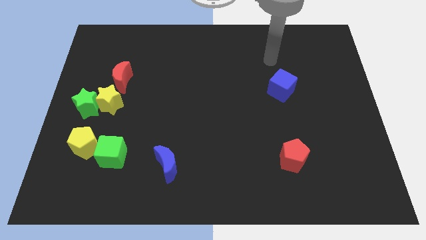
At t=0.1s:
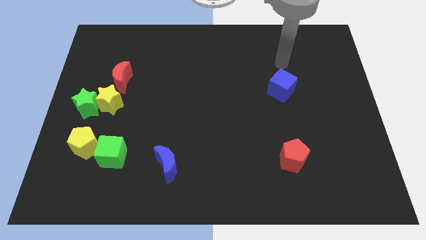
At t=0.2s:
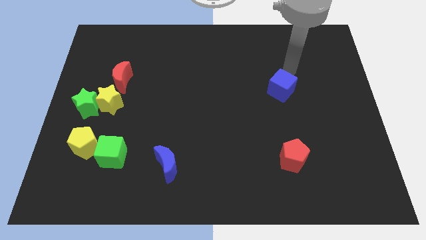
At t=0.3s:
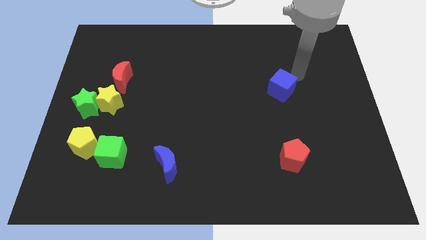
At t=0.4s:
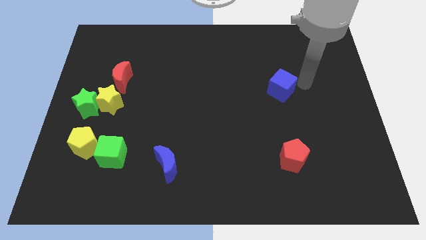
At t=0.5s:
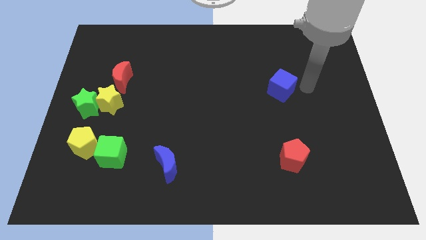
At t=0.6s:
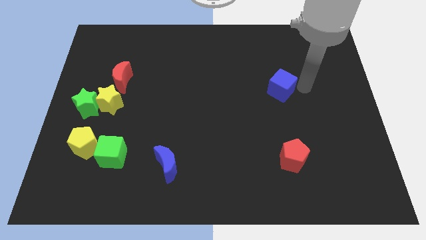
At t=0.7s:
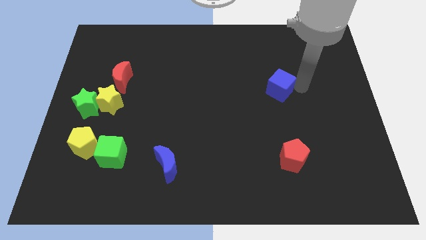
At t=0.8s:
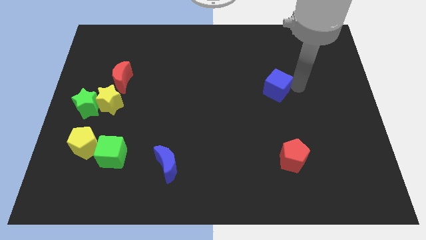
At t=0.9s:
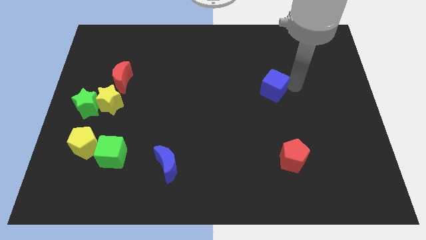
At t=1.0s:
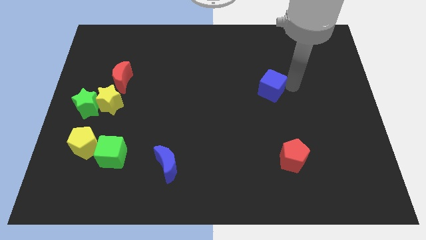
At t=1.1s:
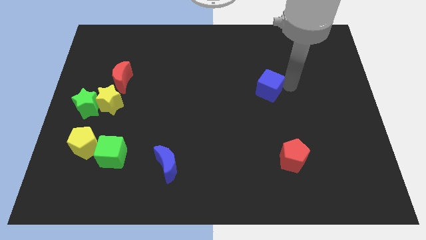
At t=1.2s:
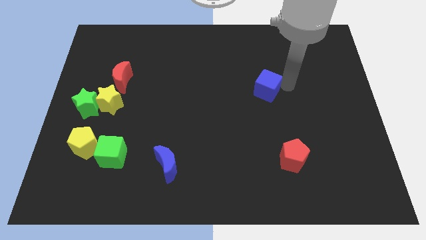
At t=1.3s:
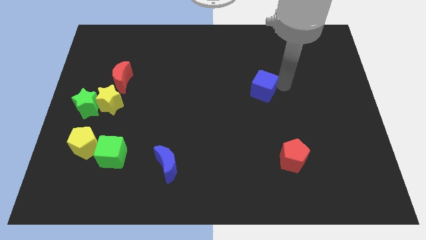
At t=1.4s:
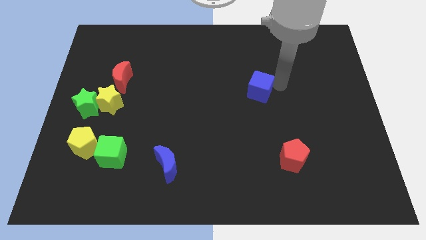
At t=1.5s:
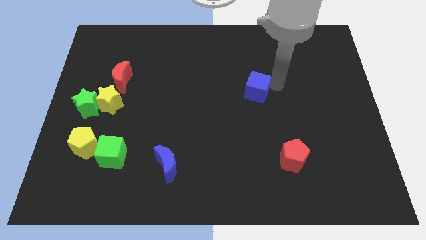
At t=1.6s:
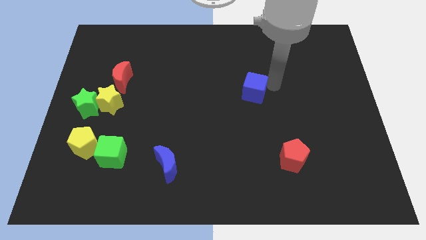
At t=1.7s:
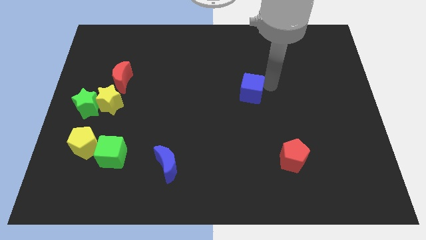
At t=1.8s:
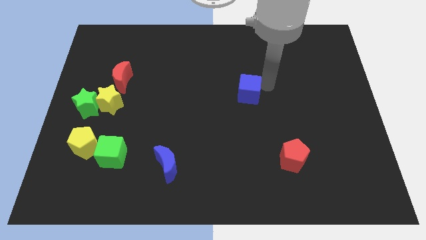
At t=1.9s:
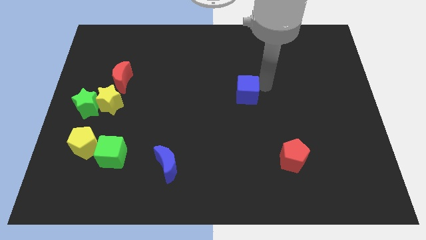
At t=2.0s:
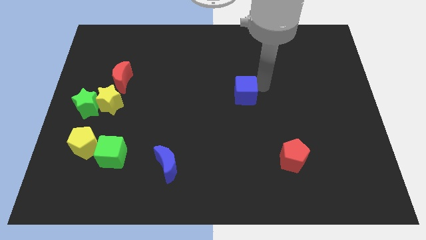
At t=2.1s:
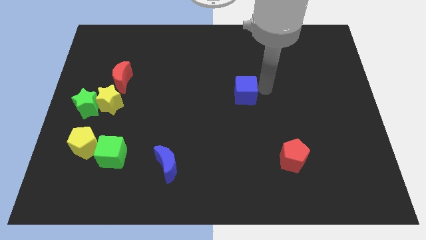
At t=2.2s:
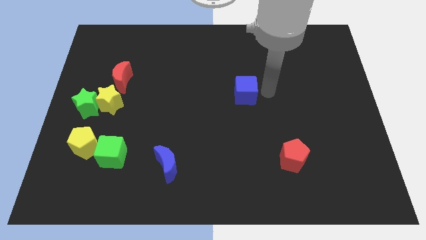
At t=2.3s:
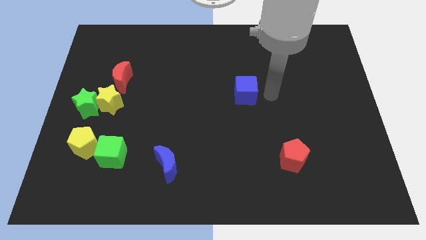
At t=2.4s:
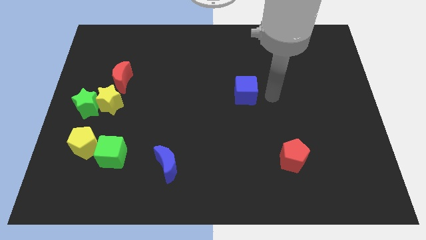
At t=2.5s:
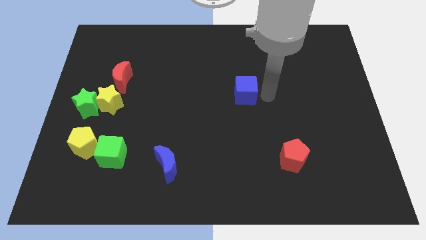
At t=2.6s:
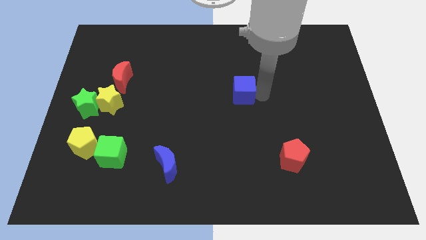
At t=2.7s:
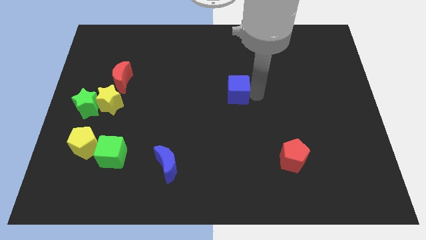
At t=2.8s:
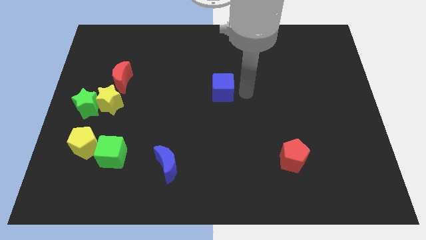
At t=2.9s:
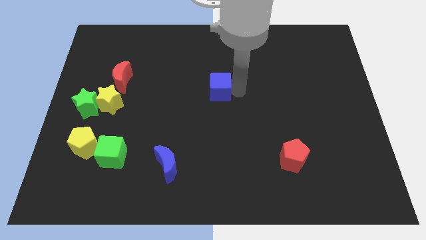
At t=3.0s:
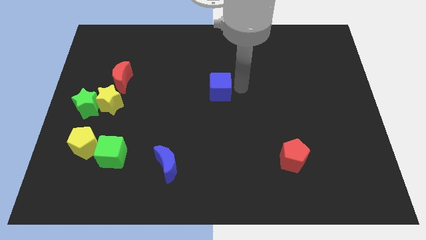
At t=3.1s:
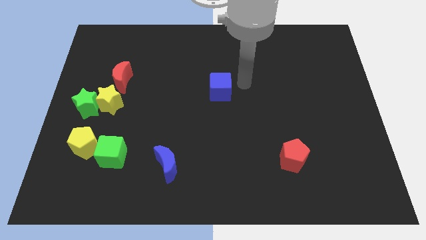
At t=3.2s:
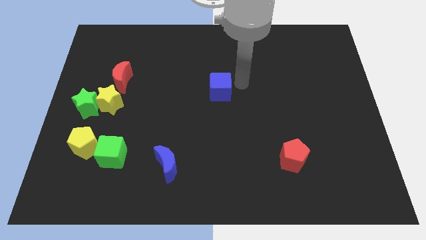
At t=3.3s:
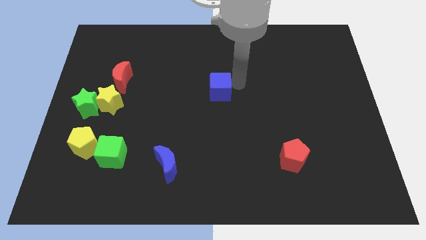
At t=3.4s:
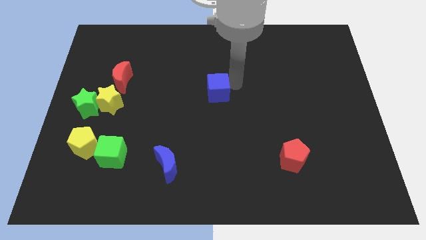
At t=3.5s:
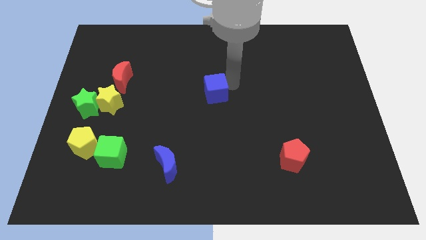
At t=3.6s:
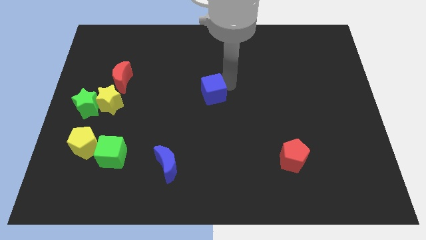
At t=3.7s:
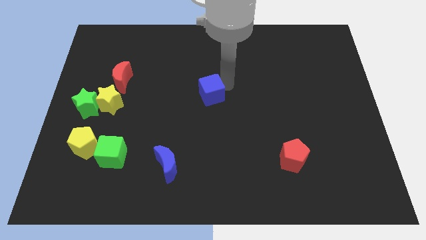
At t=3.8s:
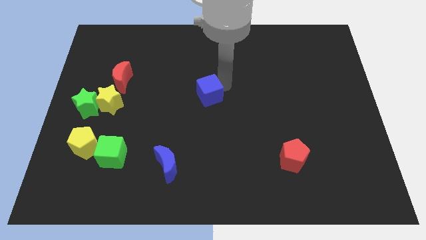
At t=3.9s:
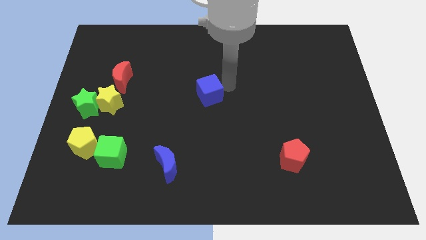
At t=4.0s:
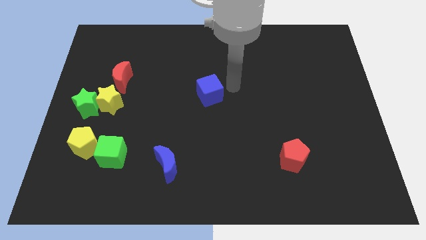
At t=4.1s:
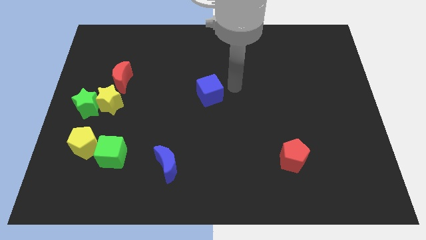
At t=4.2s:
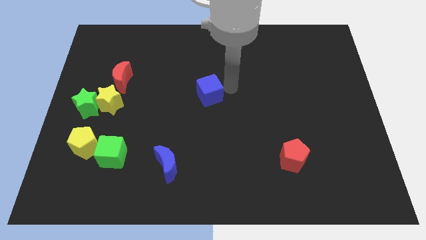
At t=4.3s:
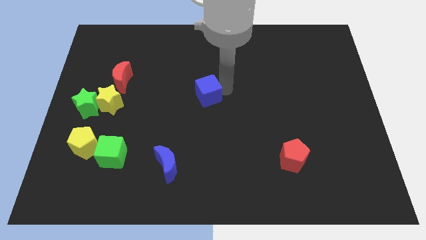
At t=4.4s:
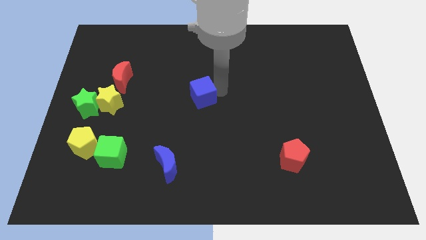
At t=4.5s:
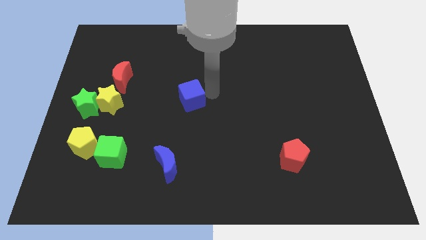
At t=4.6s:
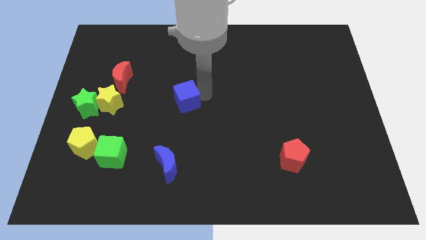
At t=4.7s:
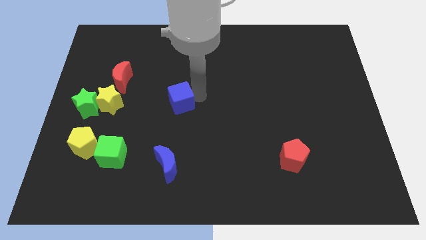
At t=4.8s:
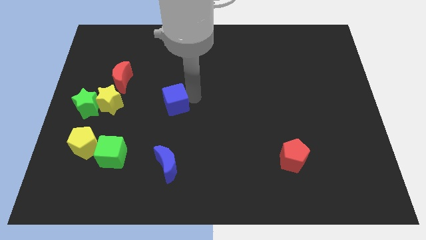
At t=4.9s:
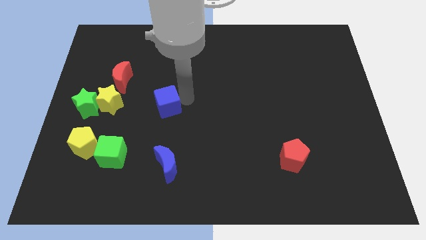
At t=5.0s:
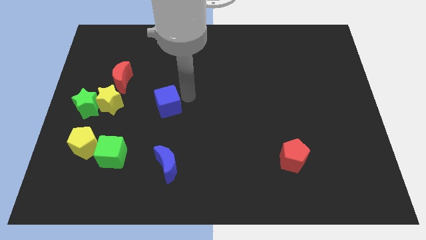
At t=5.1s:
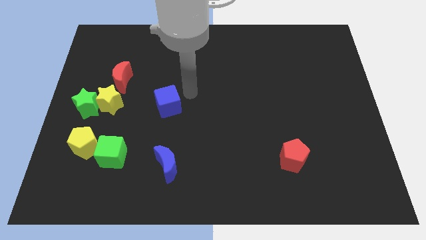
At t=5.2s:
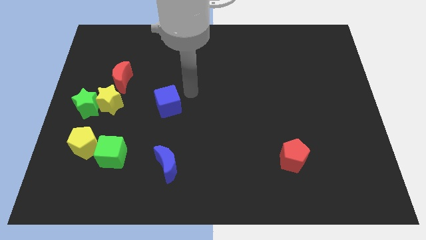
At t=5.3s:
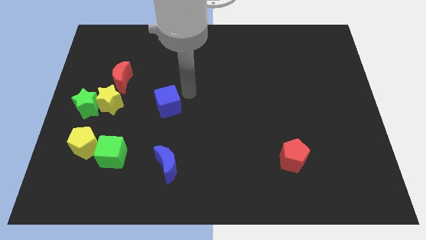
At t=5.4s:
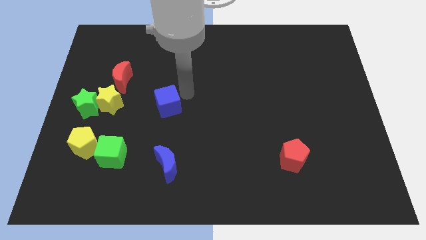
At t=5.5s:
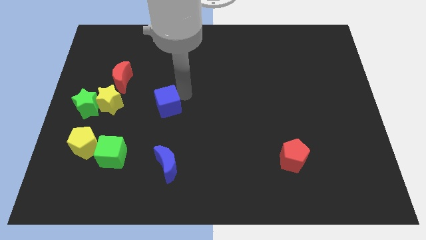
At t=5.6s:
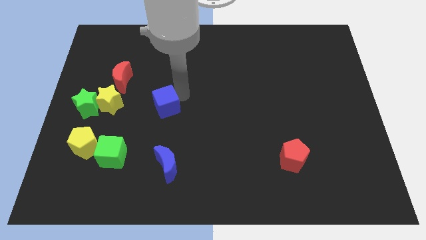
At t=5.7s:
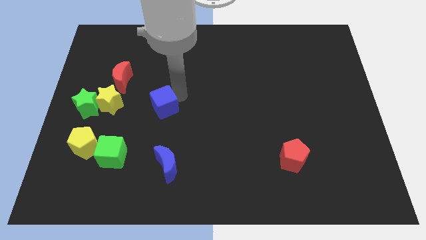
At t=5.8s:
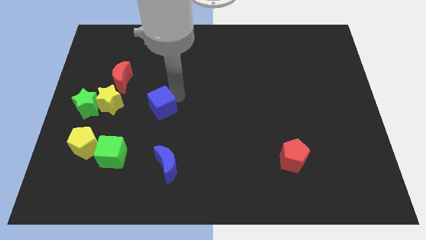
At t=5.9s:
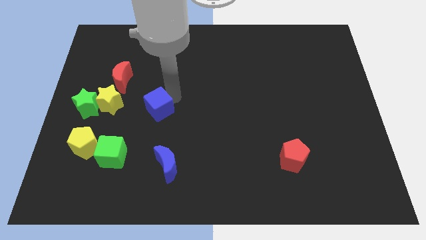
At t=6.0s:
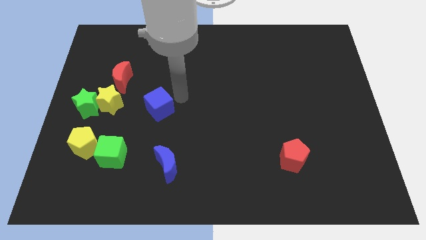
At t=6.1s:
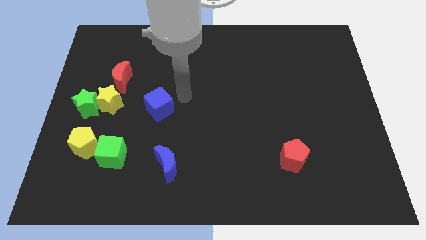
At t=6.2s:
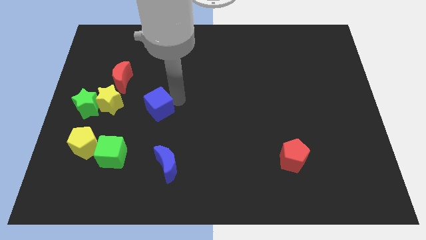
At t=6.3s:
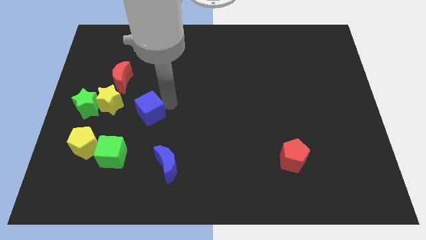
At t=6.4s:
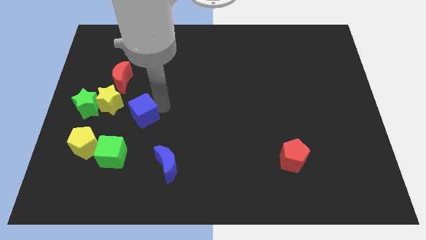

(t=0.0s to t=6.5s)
move the blue cube to the bottom right of the yellow star
